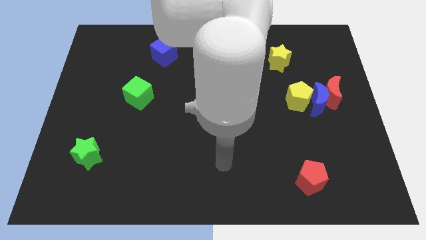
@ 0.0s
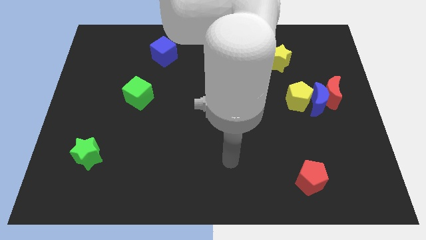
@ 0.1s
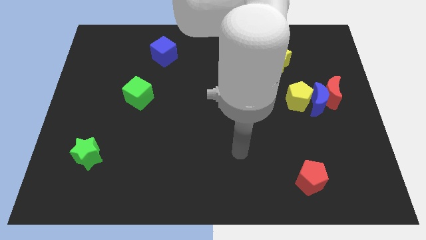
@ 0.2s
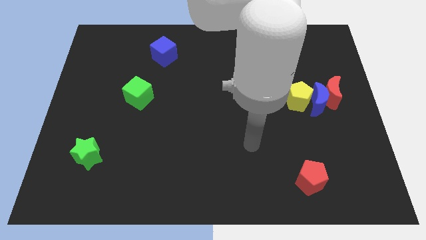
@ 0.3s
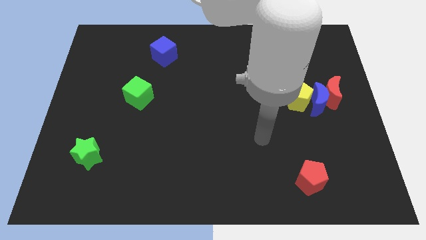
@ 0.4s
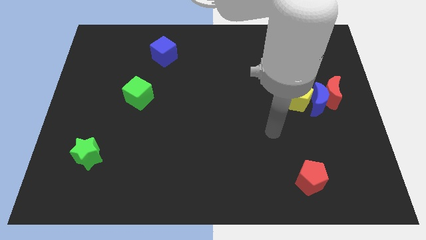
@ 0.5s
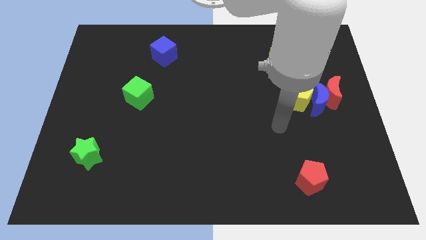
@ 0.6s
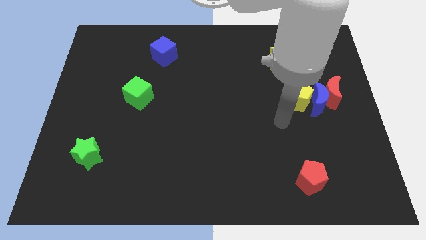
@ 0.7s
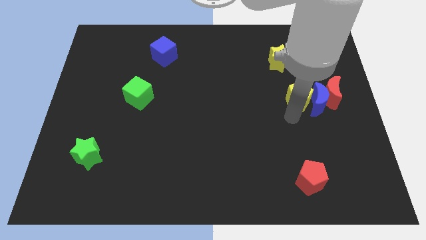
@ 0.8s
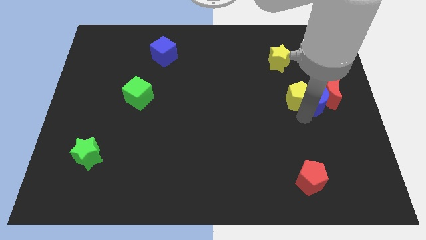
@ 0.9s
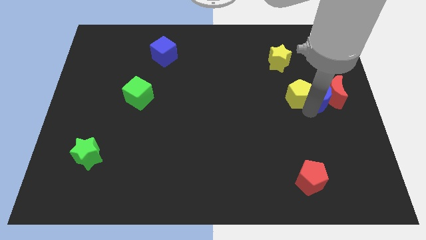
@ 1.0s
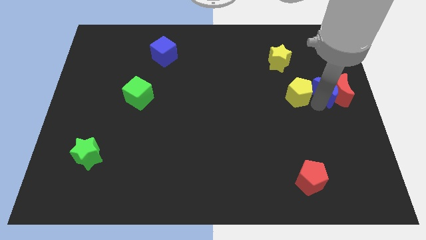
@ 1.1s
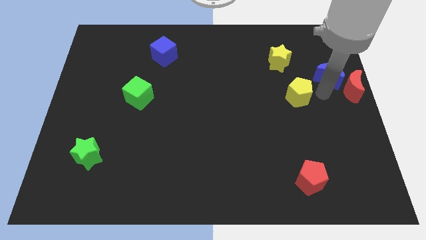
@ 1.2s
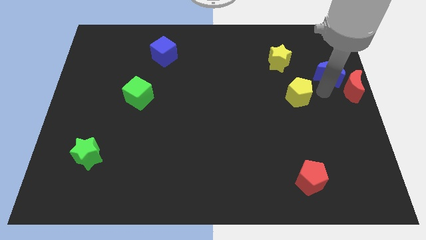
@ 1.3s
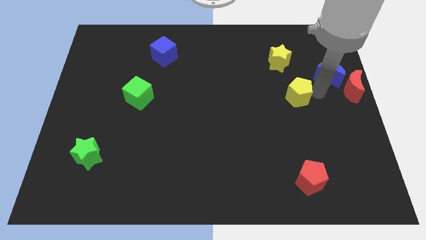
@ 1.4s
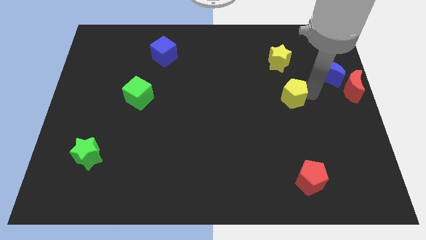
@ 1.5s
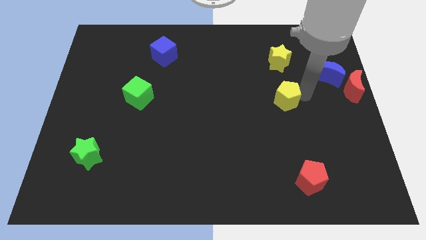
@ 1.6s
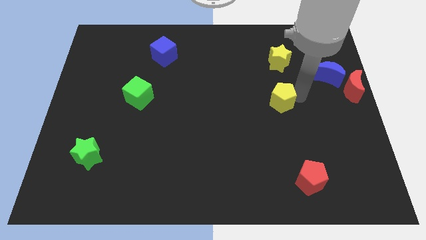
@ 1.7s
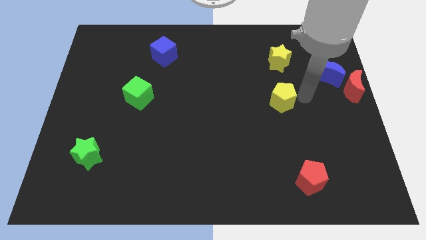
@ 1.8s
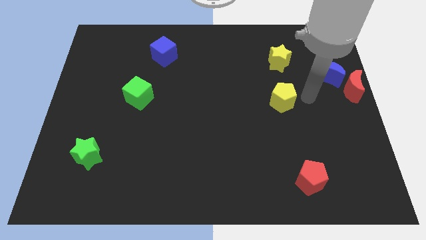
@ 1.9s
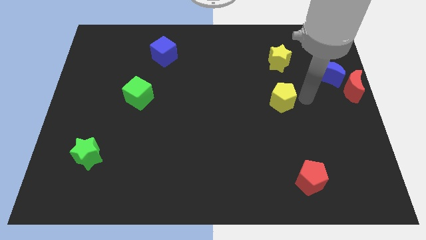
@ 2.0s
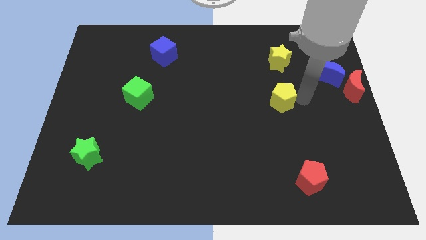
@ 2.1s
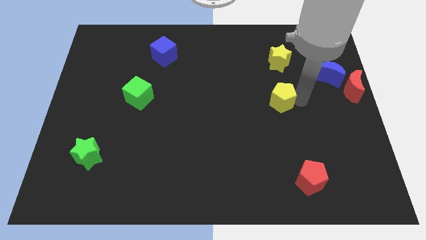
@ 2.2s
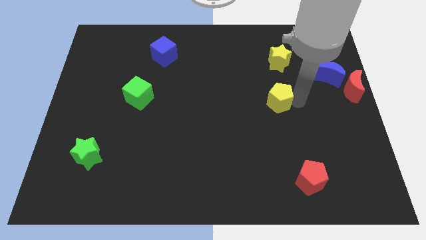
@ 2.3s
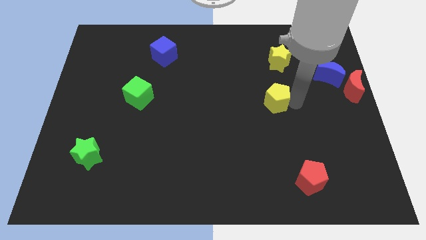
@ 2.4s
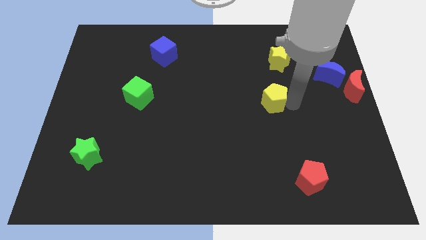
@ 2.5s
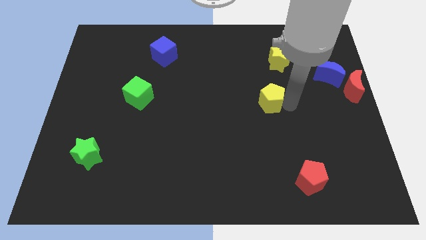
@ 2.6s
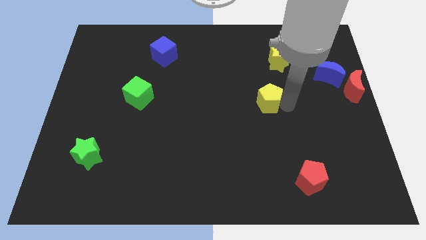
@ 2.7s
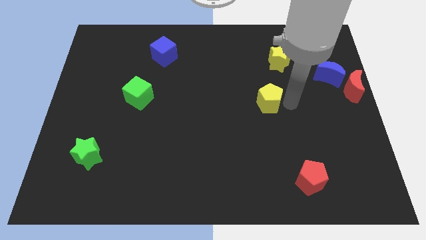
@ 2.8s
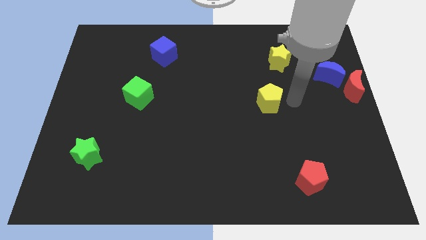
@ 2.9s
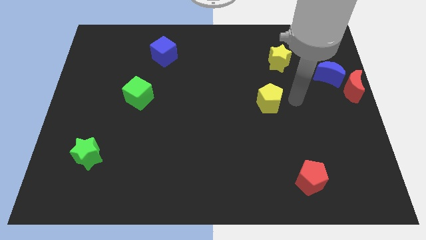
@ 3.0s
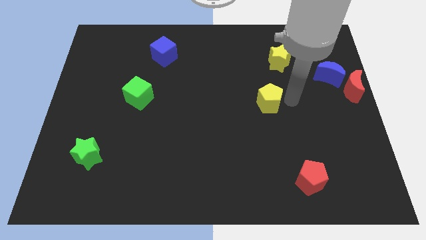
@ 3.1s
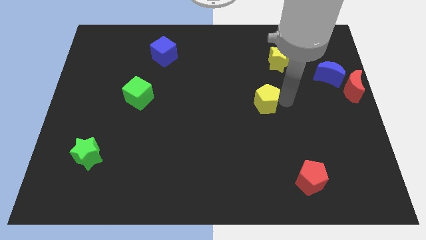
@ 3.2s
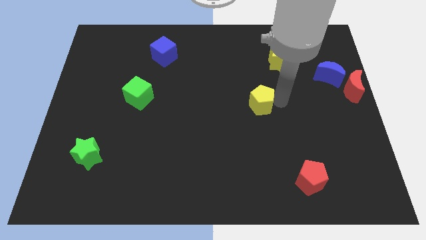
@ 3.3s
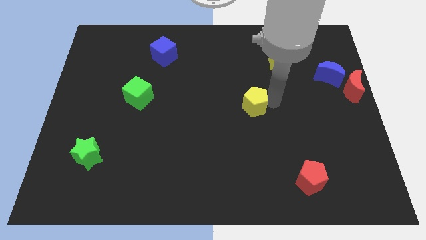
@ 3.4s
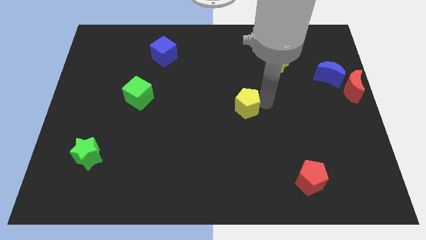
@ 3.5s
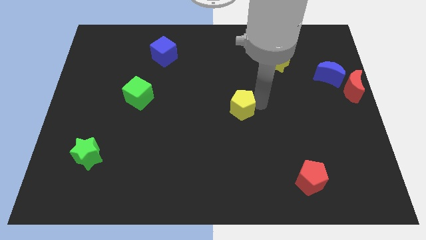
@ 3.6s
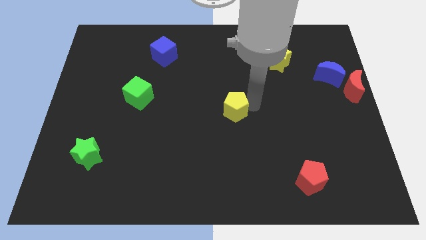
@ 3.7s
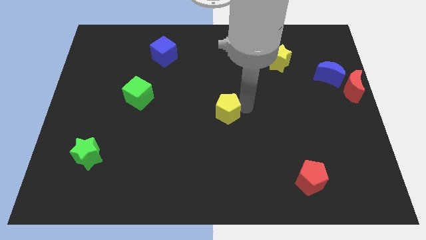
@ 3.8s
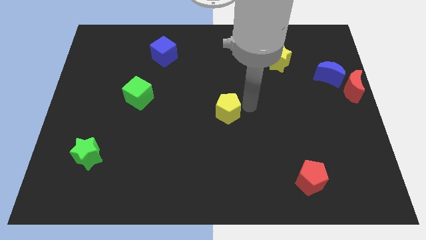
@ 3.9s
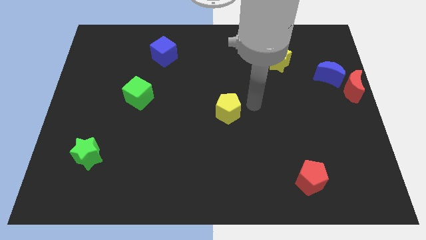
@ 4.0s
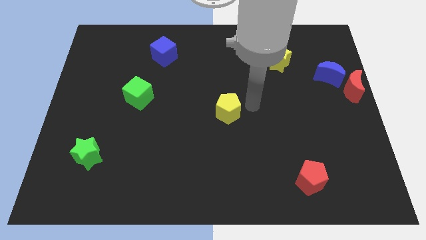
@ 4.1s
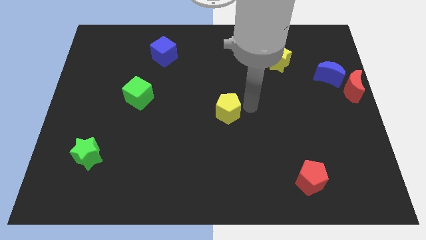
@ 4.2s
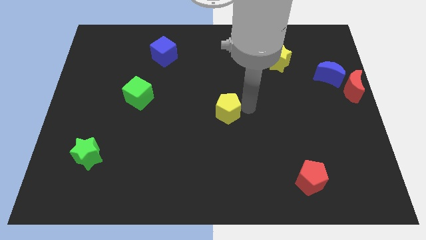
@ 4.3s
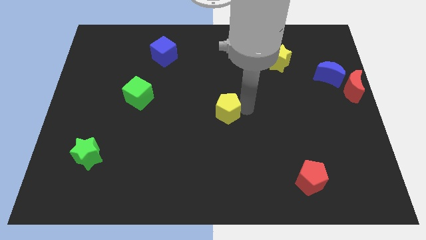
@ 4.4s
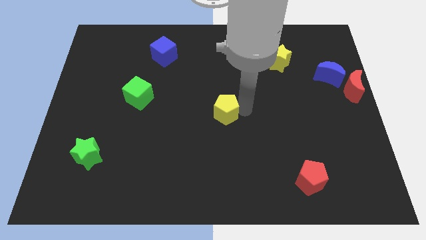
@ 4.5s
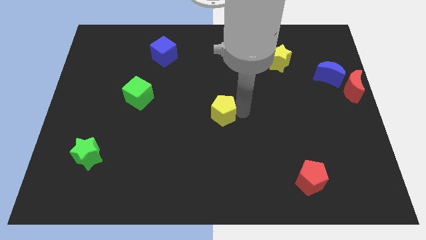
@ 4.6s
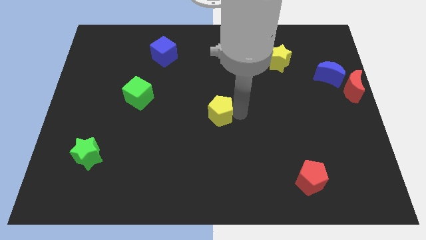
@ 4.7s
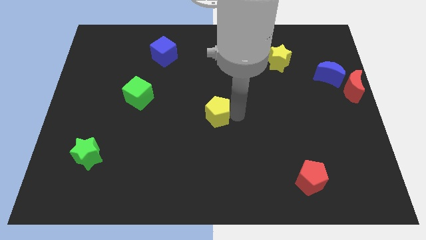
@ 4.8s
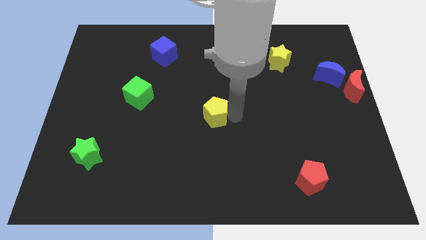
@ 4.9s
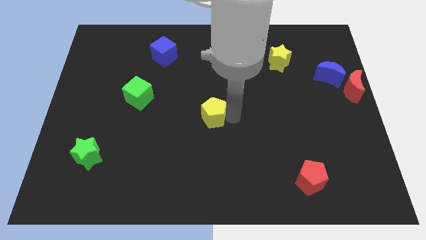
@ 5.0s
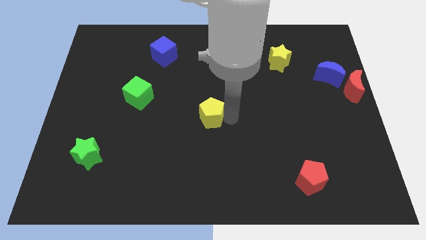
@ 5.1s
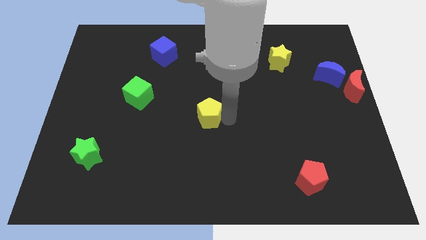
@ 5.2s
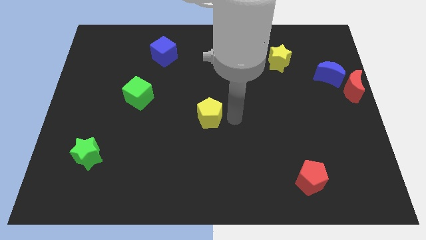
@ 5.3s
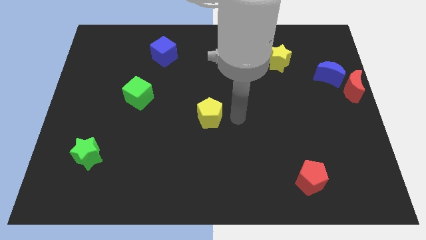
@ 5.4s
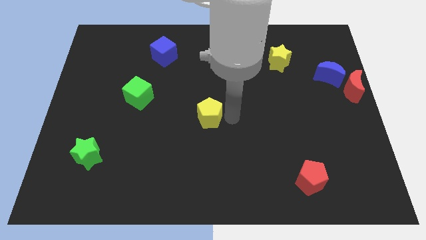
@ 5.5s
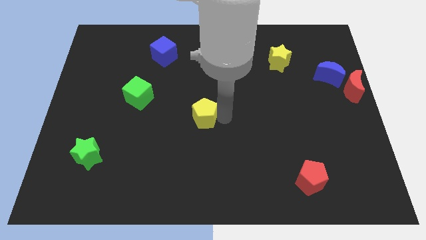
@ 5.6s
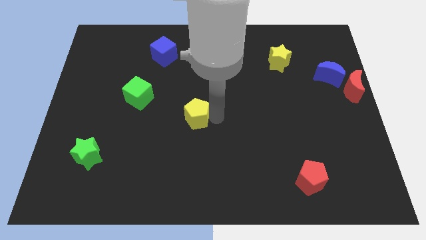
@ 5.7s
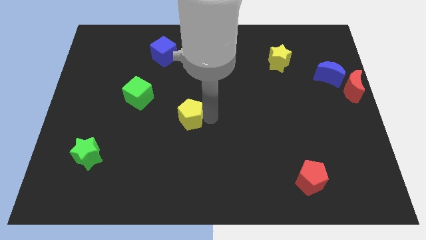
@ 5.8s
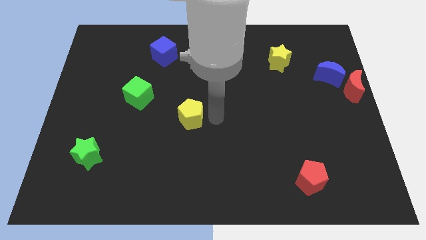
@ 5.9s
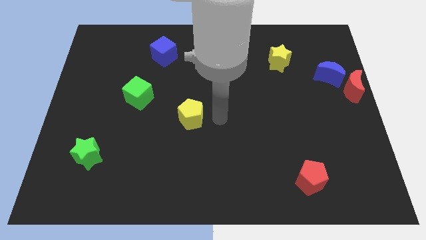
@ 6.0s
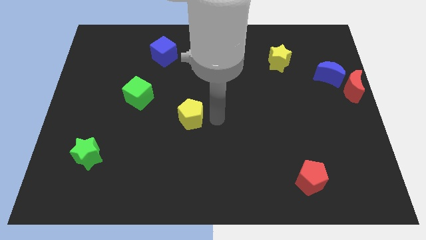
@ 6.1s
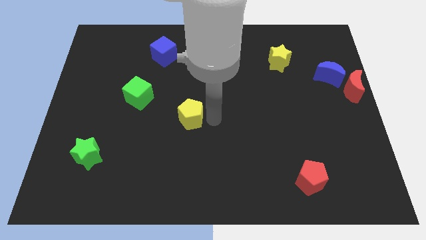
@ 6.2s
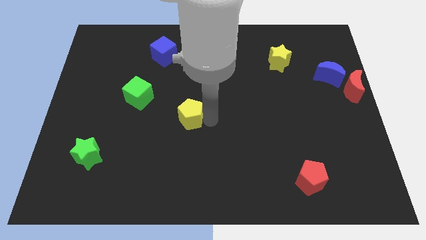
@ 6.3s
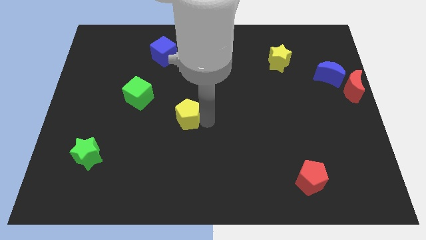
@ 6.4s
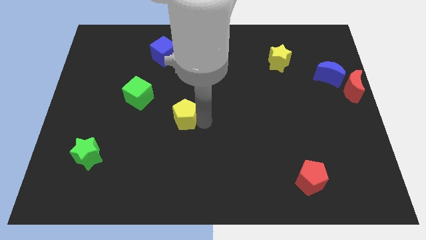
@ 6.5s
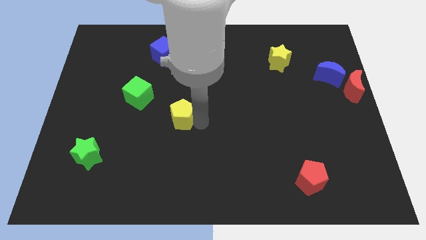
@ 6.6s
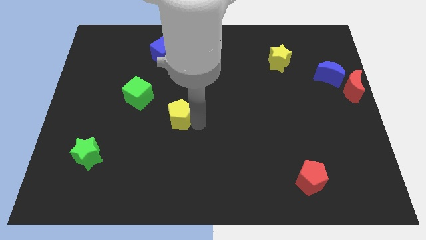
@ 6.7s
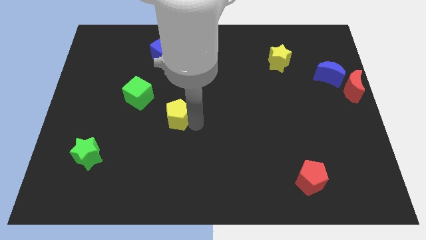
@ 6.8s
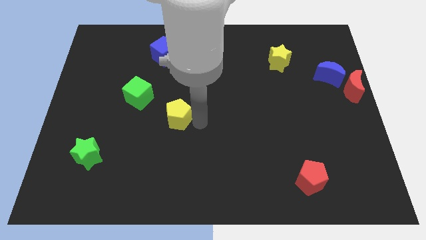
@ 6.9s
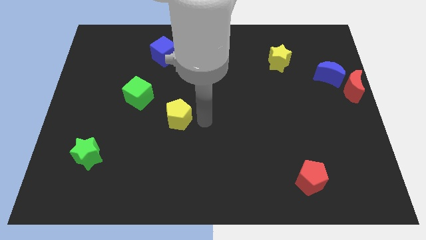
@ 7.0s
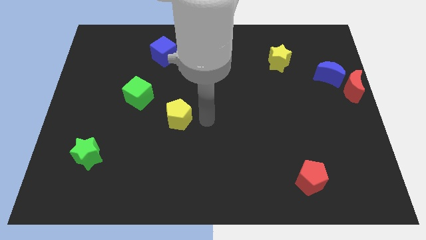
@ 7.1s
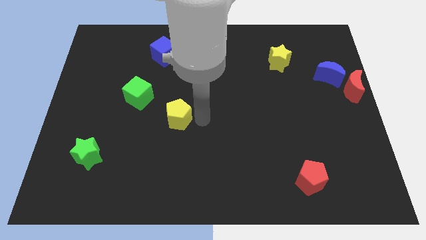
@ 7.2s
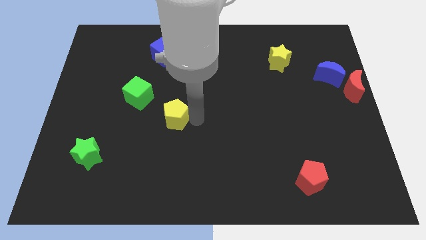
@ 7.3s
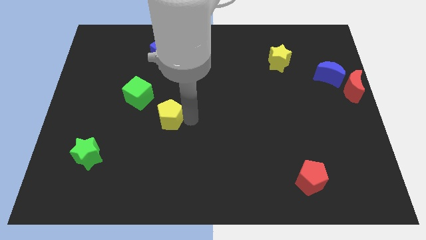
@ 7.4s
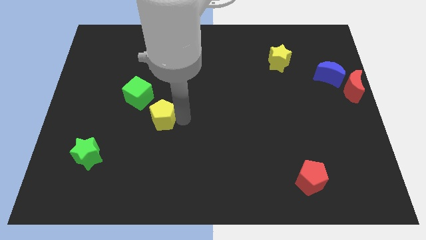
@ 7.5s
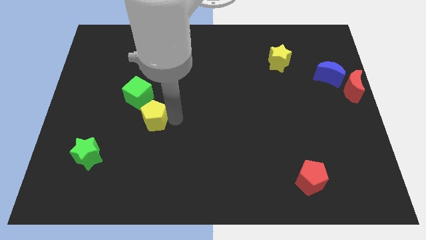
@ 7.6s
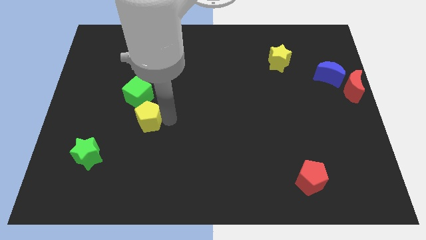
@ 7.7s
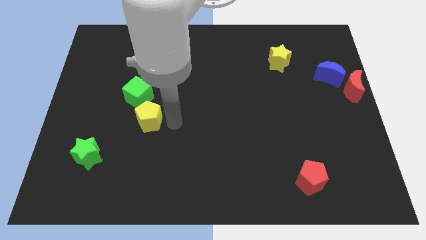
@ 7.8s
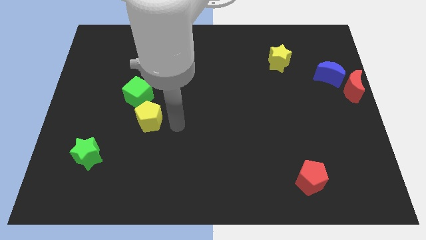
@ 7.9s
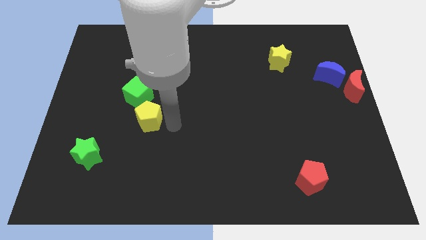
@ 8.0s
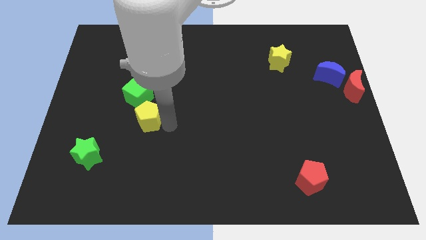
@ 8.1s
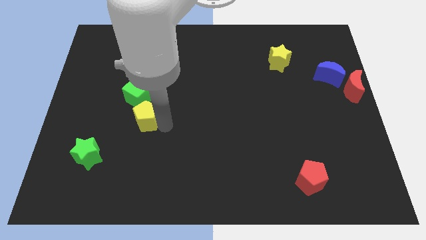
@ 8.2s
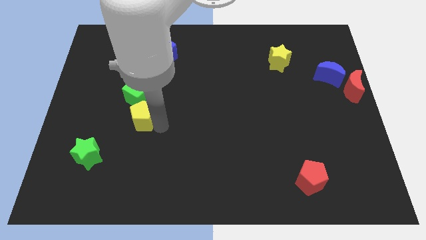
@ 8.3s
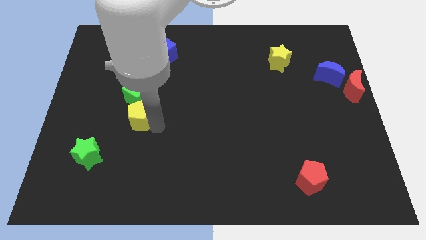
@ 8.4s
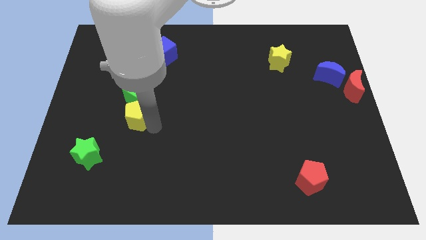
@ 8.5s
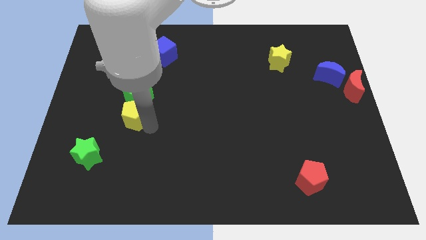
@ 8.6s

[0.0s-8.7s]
push the yellow pentagon to the bottom left of the green cube
